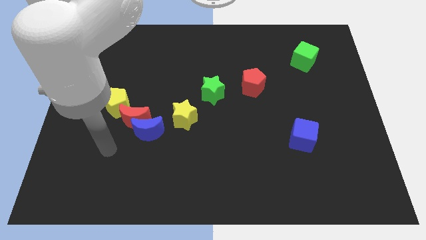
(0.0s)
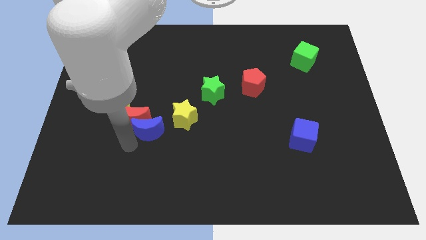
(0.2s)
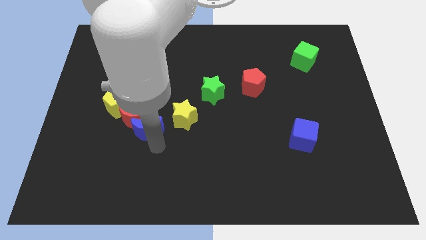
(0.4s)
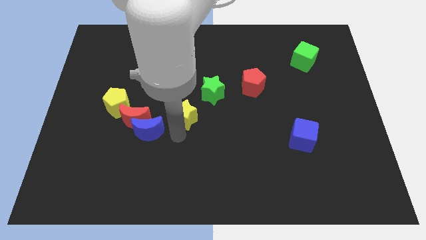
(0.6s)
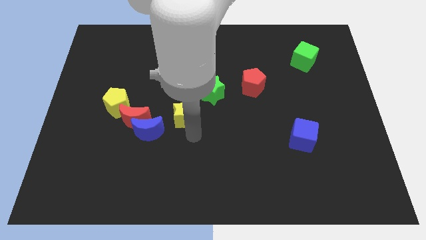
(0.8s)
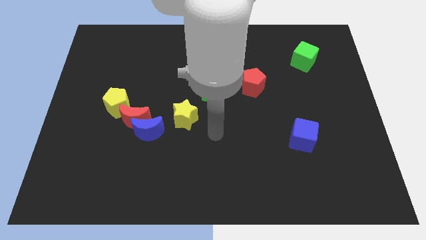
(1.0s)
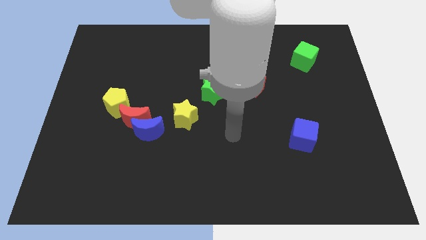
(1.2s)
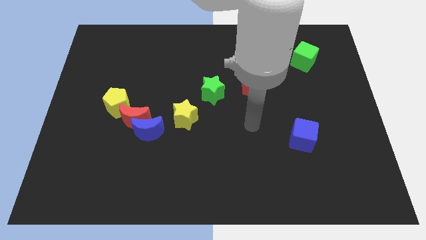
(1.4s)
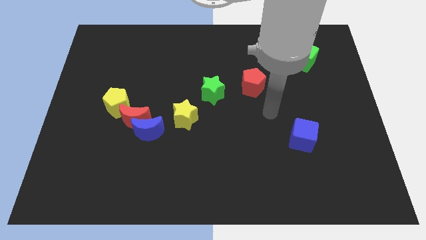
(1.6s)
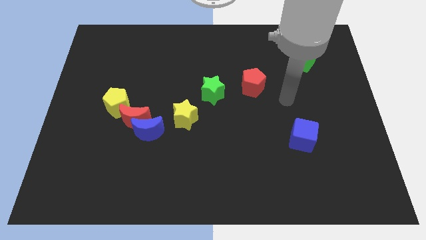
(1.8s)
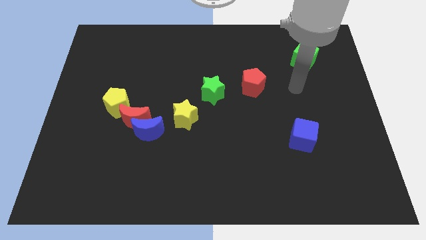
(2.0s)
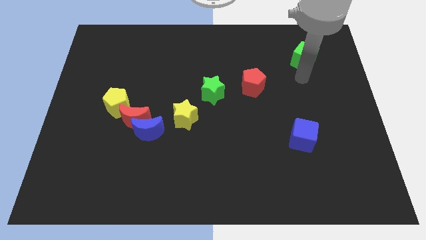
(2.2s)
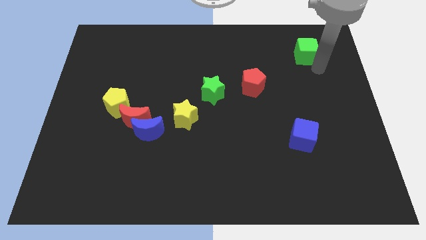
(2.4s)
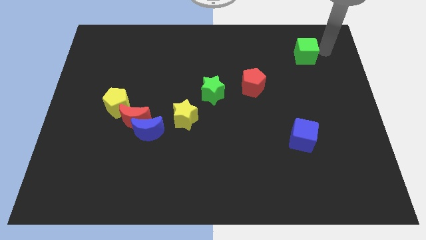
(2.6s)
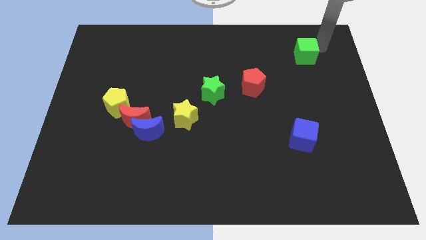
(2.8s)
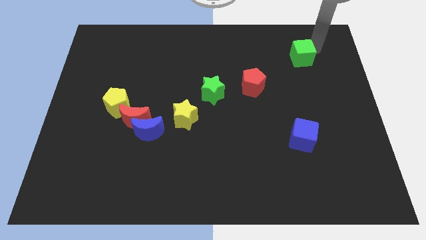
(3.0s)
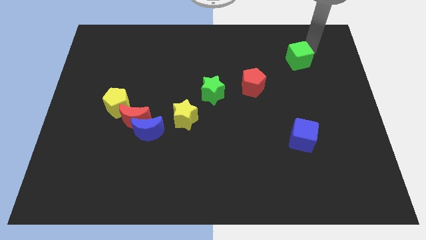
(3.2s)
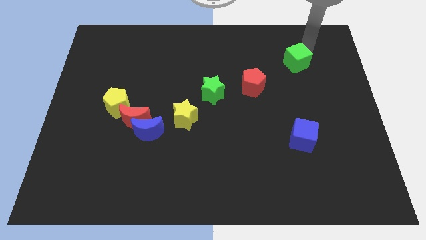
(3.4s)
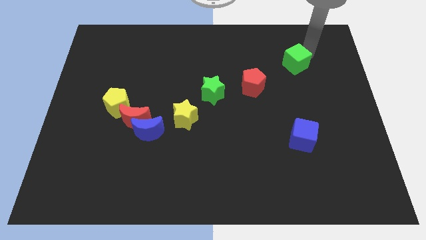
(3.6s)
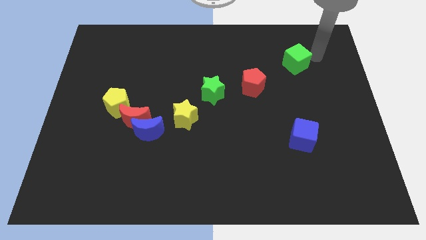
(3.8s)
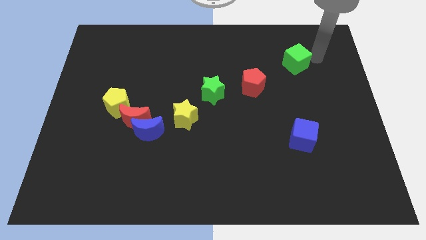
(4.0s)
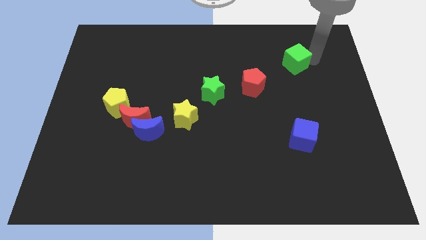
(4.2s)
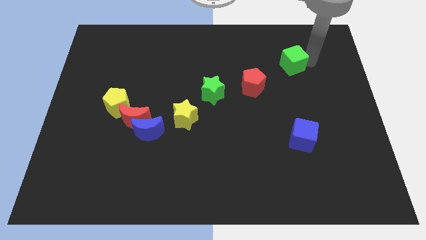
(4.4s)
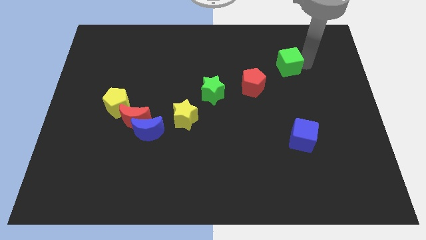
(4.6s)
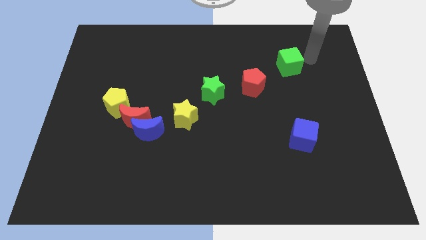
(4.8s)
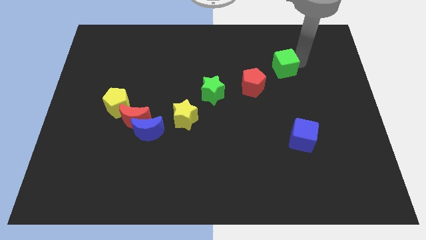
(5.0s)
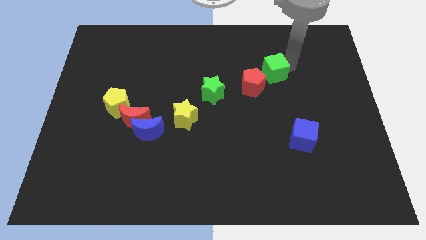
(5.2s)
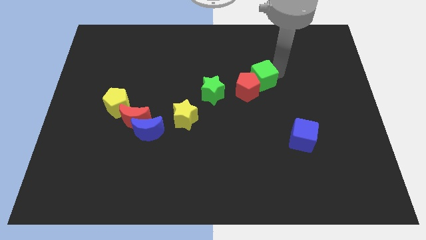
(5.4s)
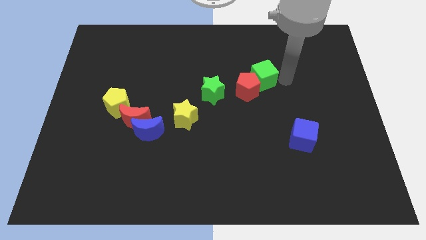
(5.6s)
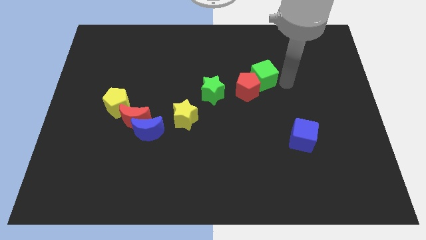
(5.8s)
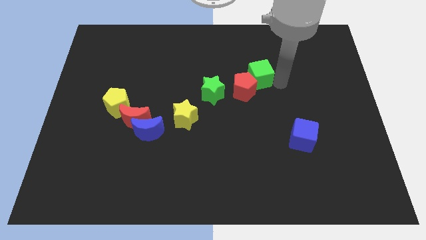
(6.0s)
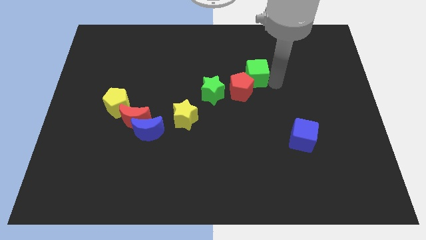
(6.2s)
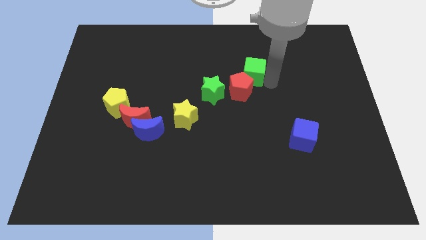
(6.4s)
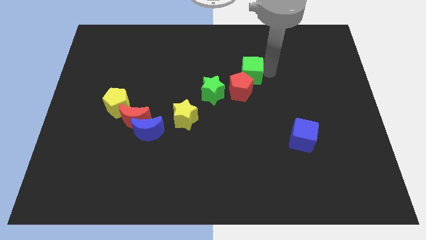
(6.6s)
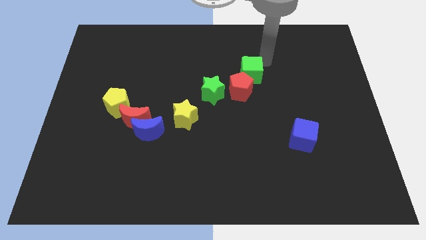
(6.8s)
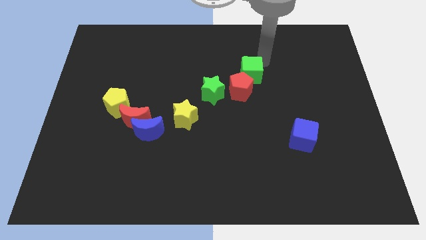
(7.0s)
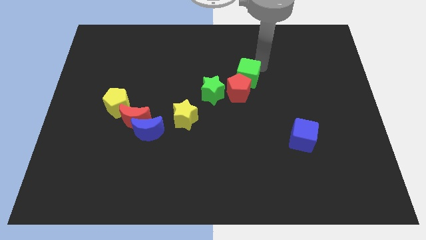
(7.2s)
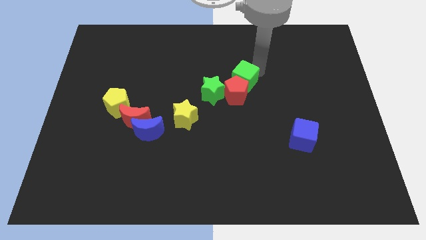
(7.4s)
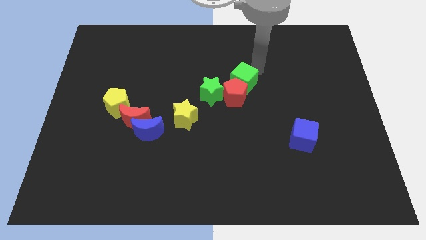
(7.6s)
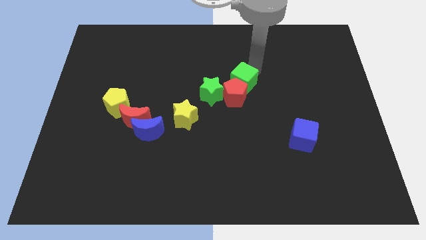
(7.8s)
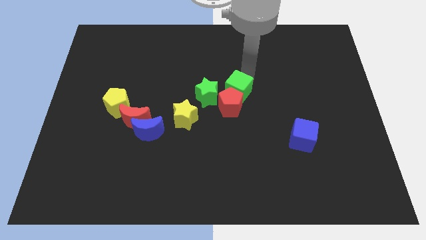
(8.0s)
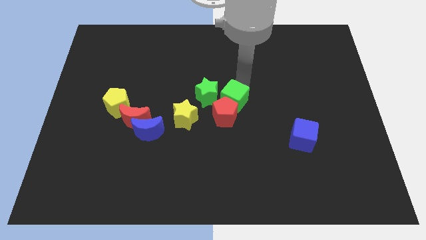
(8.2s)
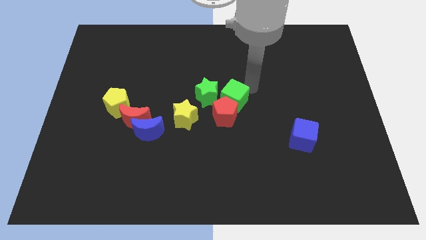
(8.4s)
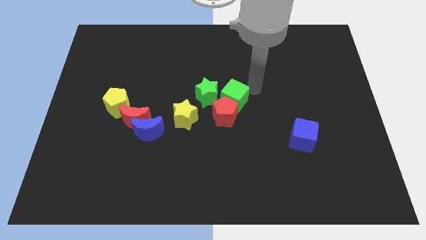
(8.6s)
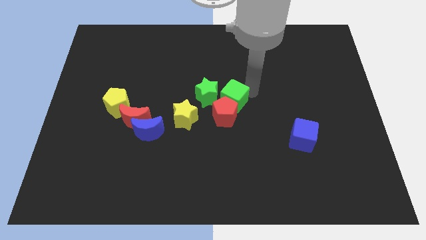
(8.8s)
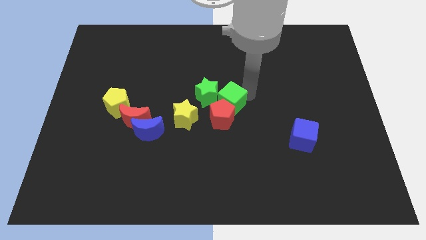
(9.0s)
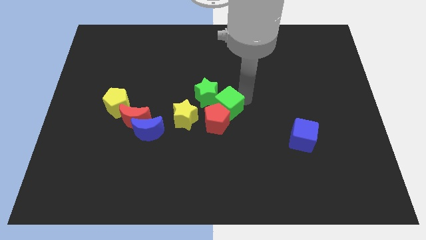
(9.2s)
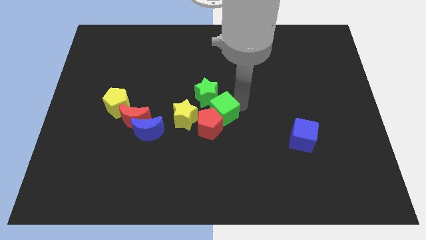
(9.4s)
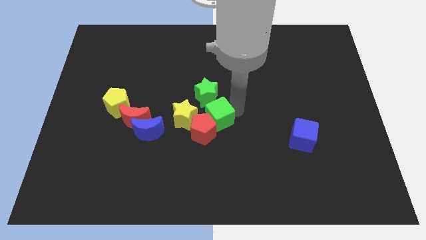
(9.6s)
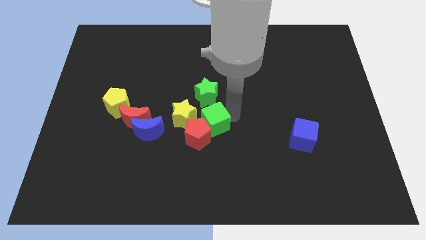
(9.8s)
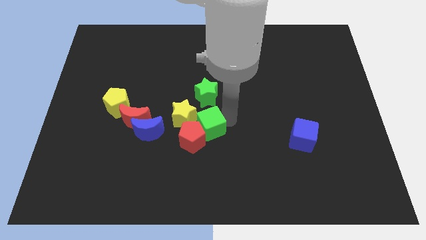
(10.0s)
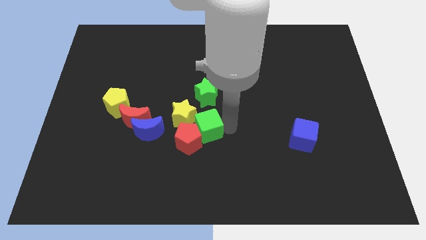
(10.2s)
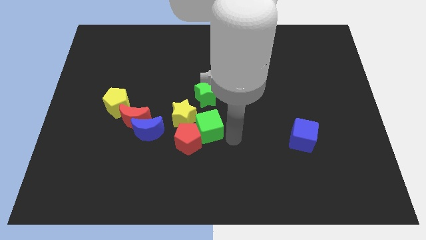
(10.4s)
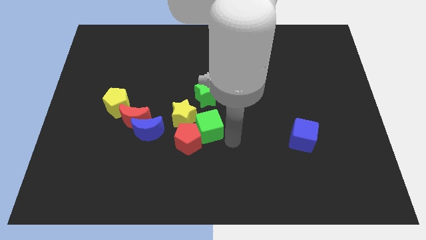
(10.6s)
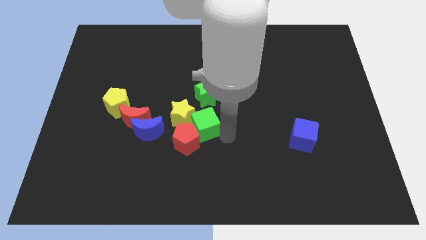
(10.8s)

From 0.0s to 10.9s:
push the green cube next to the yellow star
